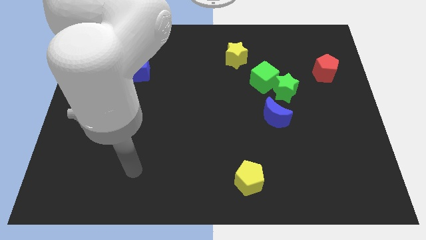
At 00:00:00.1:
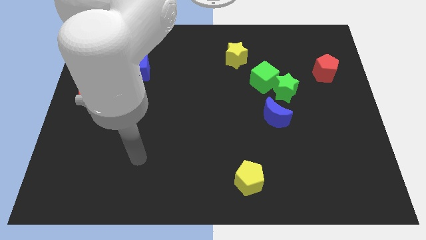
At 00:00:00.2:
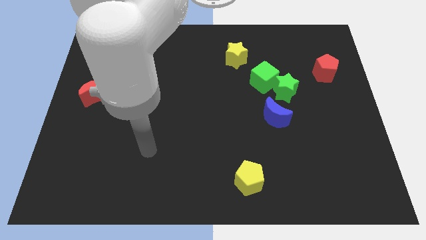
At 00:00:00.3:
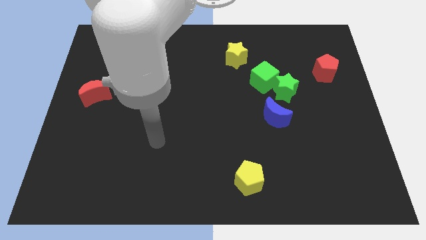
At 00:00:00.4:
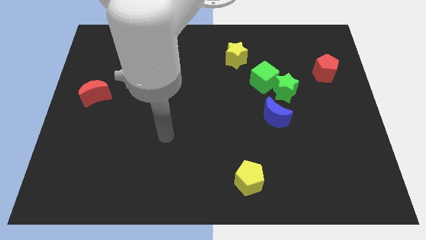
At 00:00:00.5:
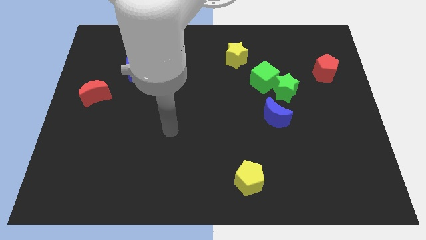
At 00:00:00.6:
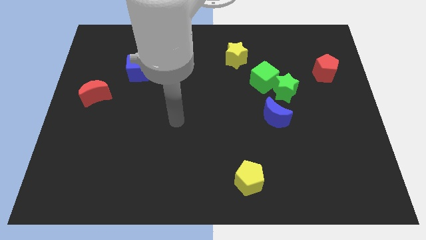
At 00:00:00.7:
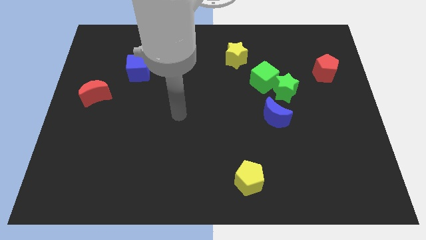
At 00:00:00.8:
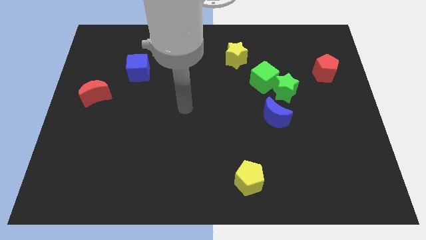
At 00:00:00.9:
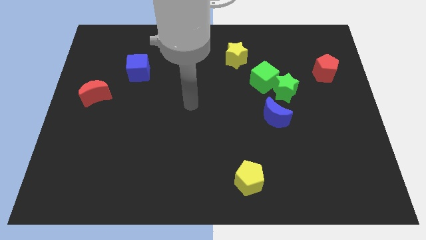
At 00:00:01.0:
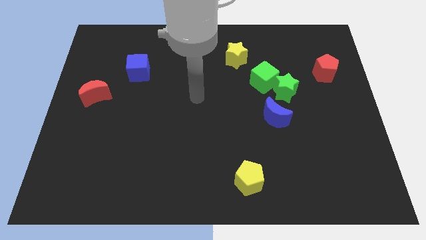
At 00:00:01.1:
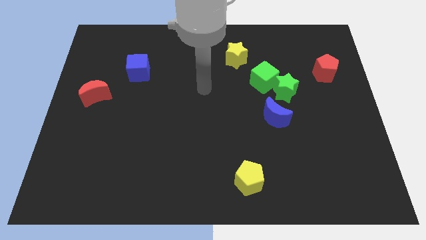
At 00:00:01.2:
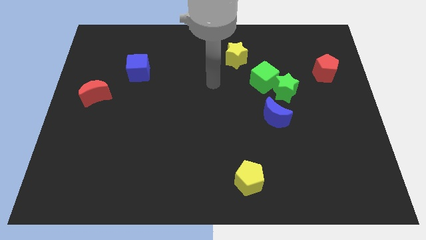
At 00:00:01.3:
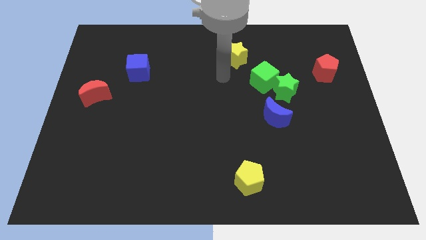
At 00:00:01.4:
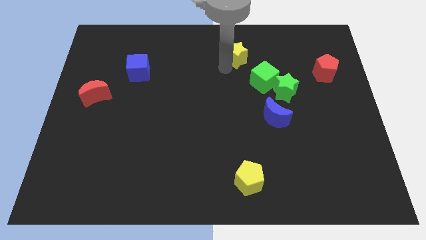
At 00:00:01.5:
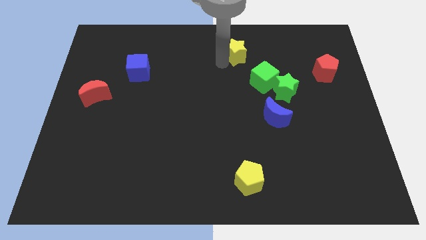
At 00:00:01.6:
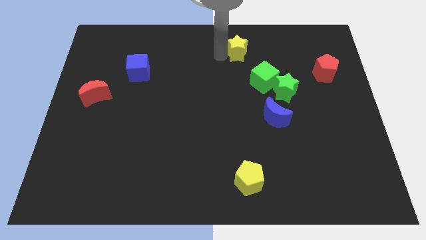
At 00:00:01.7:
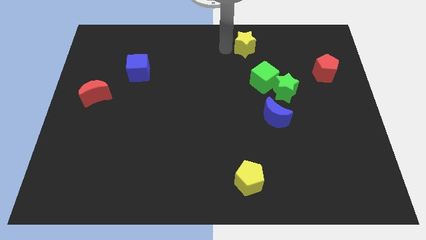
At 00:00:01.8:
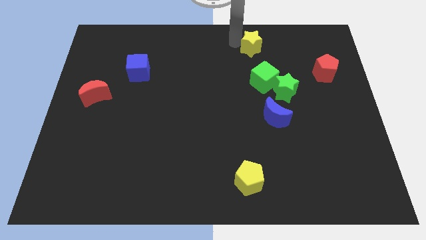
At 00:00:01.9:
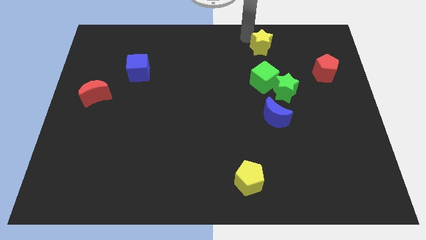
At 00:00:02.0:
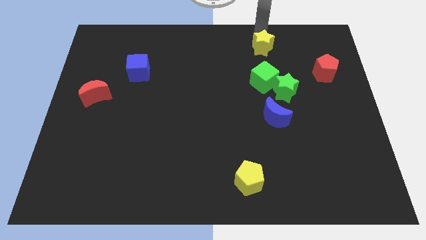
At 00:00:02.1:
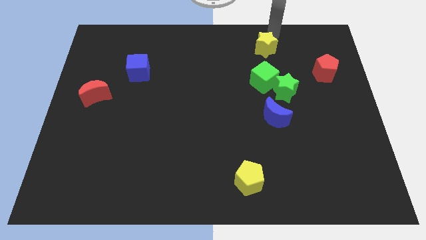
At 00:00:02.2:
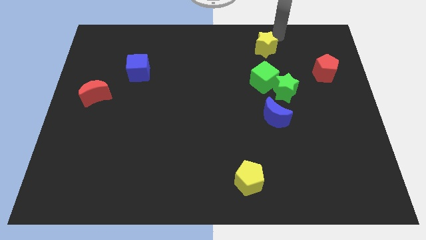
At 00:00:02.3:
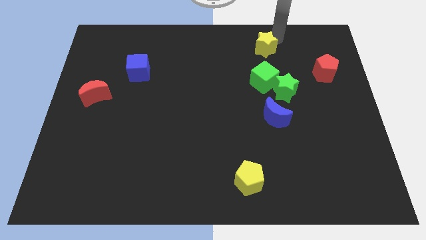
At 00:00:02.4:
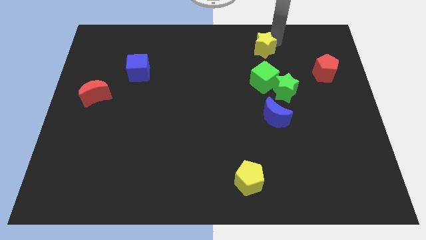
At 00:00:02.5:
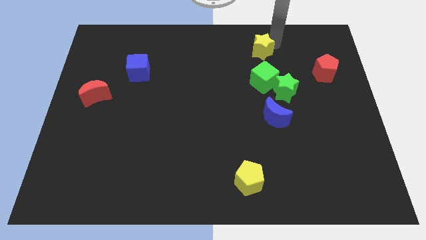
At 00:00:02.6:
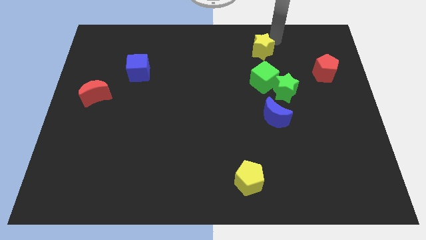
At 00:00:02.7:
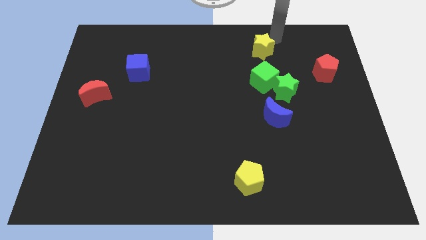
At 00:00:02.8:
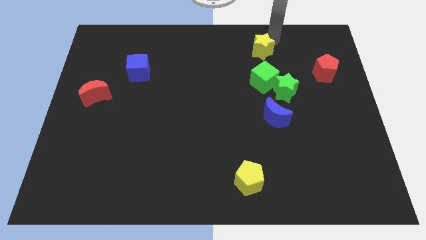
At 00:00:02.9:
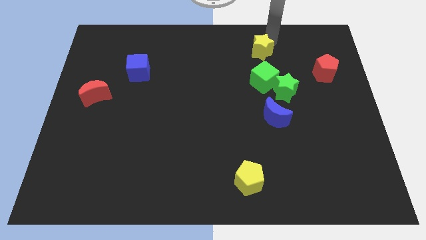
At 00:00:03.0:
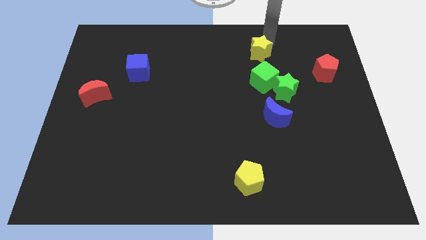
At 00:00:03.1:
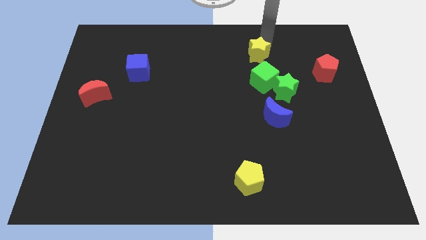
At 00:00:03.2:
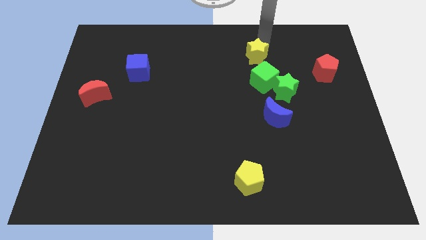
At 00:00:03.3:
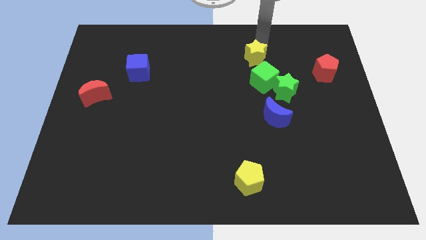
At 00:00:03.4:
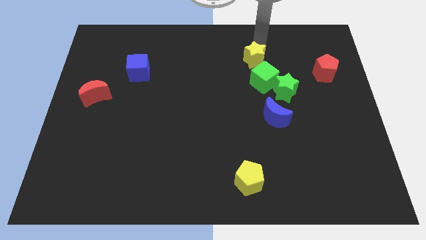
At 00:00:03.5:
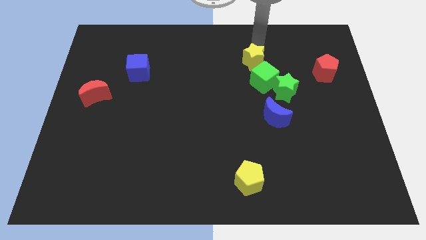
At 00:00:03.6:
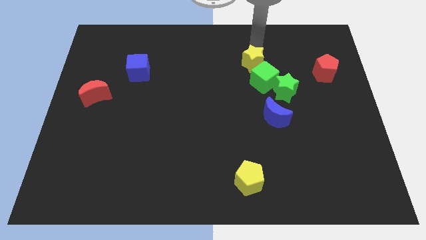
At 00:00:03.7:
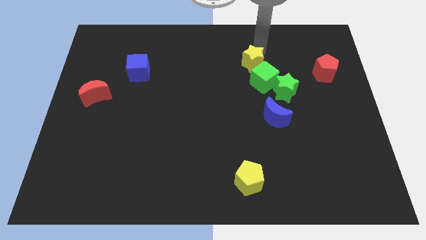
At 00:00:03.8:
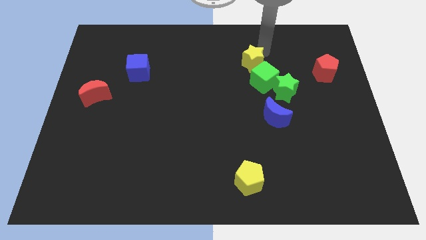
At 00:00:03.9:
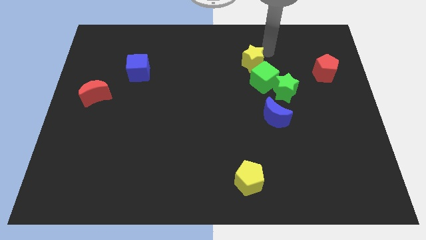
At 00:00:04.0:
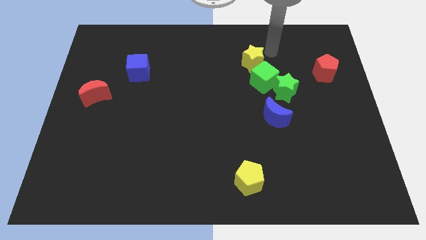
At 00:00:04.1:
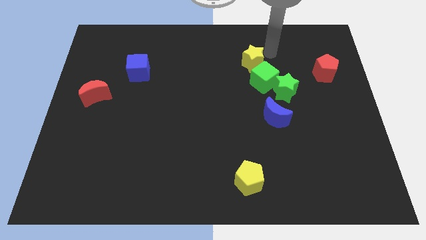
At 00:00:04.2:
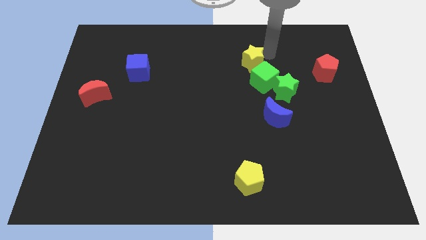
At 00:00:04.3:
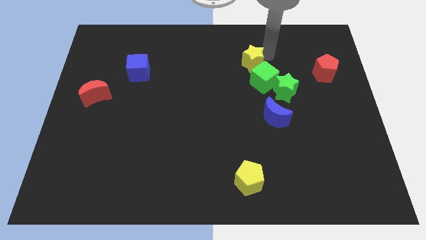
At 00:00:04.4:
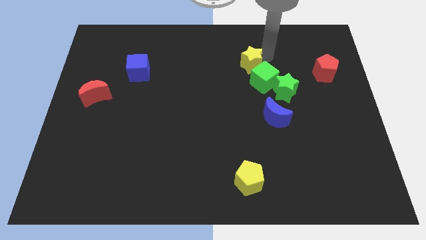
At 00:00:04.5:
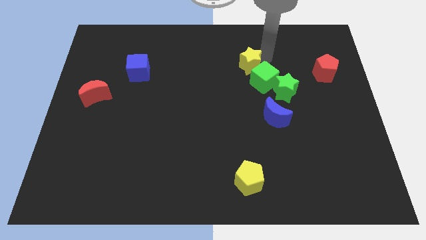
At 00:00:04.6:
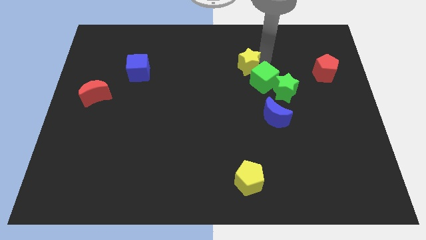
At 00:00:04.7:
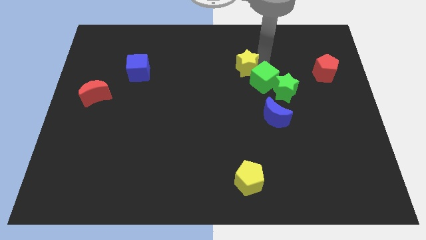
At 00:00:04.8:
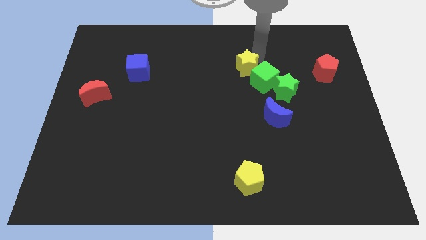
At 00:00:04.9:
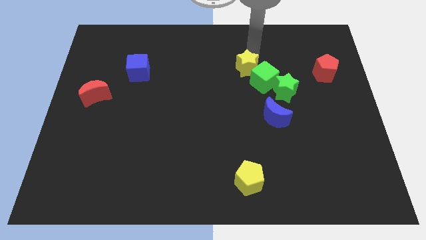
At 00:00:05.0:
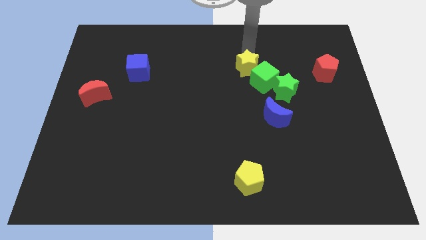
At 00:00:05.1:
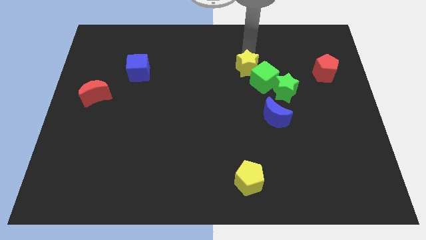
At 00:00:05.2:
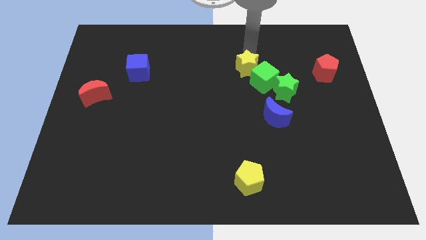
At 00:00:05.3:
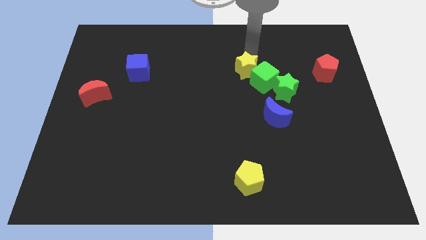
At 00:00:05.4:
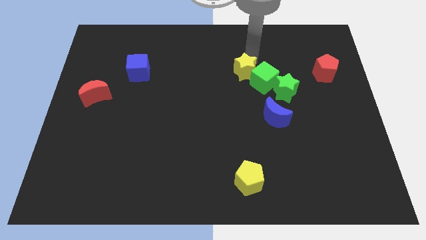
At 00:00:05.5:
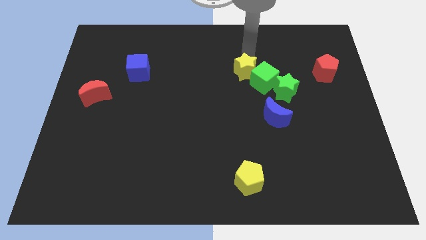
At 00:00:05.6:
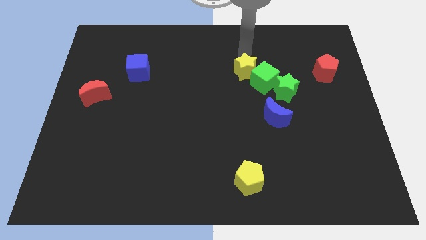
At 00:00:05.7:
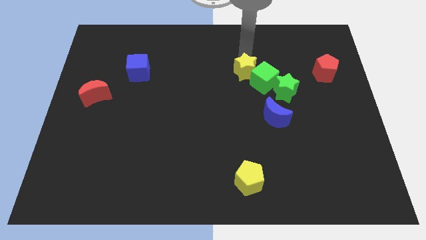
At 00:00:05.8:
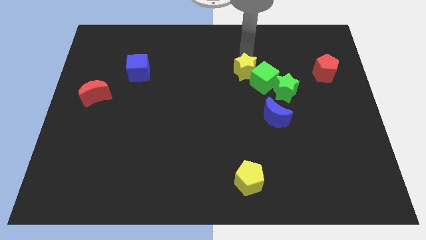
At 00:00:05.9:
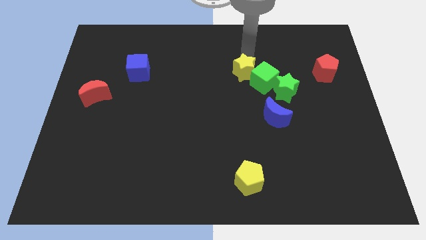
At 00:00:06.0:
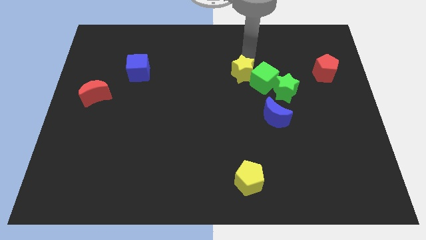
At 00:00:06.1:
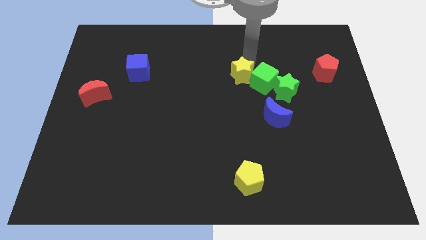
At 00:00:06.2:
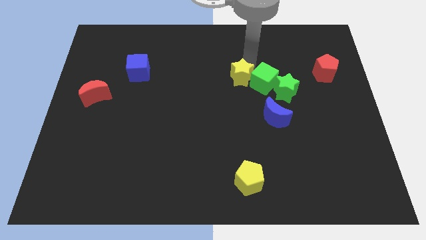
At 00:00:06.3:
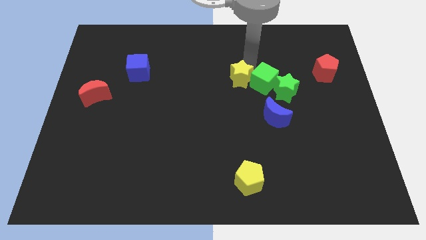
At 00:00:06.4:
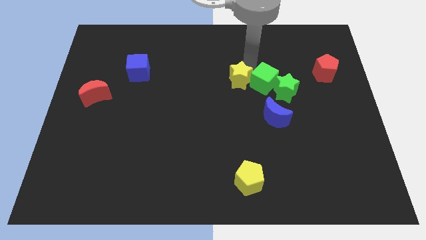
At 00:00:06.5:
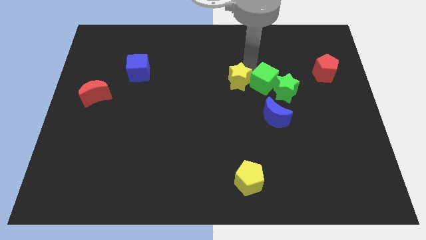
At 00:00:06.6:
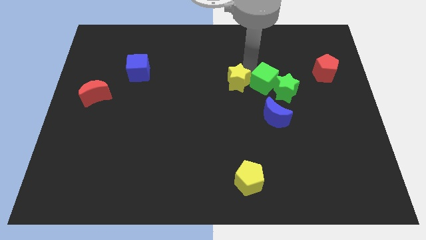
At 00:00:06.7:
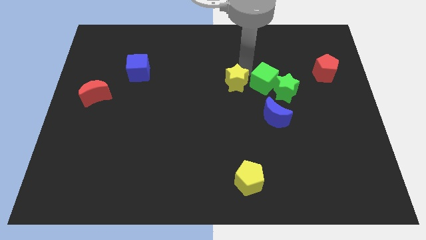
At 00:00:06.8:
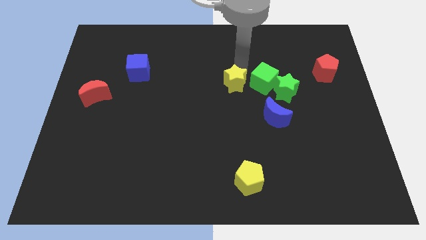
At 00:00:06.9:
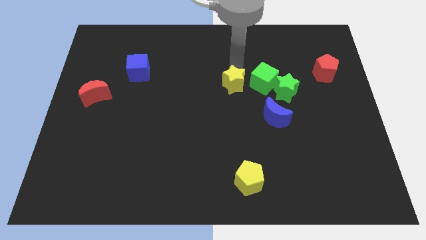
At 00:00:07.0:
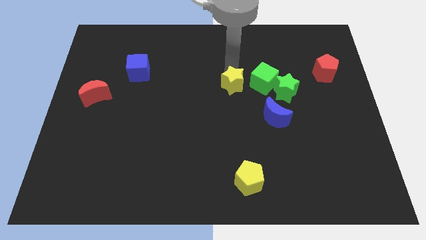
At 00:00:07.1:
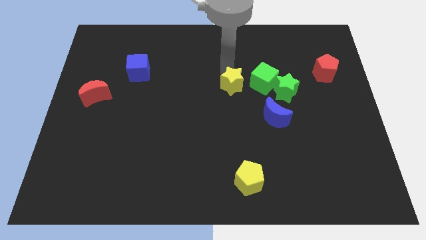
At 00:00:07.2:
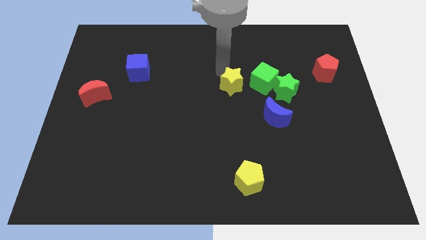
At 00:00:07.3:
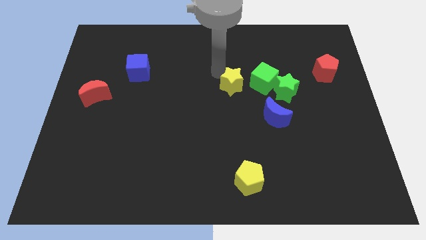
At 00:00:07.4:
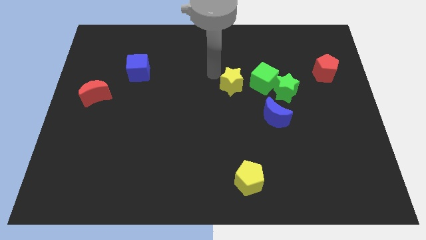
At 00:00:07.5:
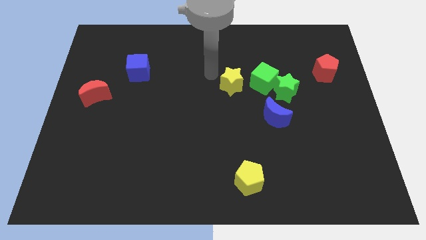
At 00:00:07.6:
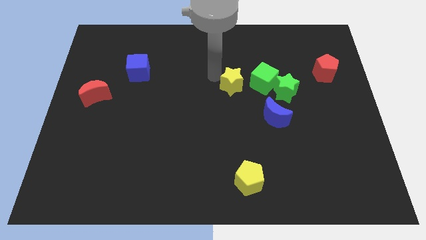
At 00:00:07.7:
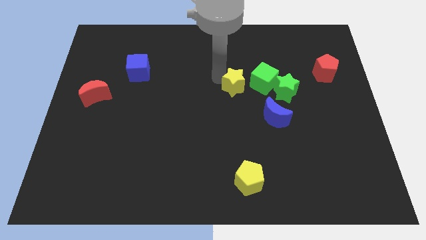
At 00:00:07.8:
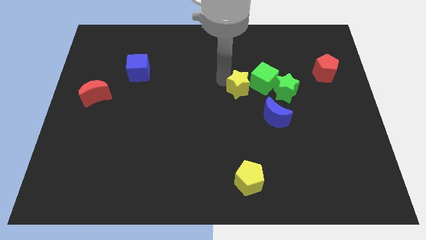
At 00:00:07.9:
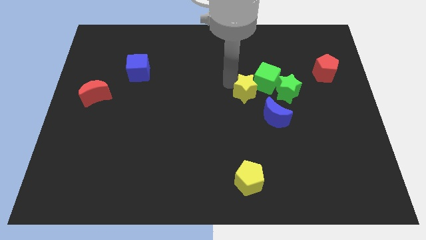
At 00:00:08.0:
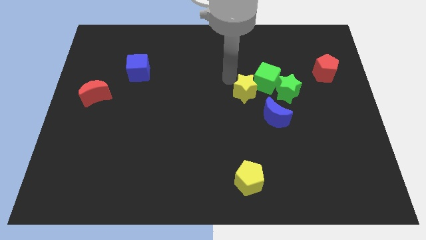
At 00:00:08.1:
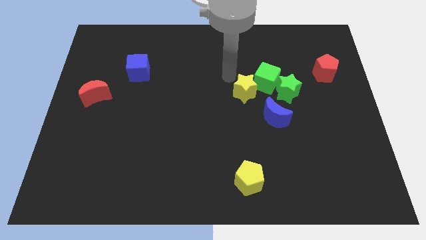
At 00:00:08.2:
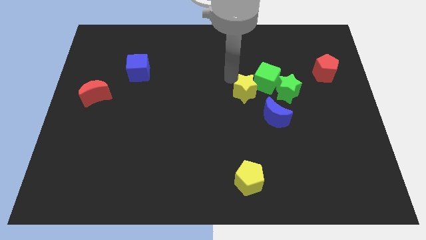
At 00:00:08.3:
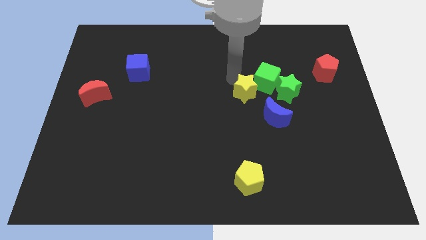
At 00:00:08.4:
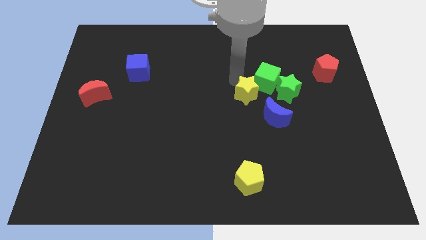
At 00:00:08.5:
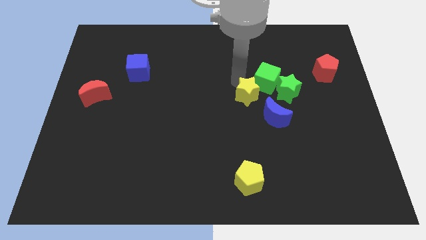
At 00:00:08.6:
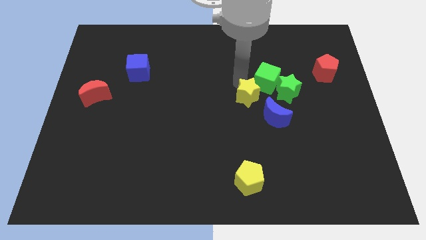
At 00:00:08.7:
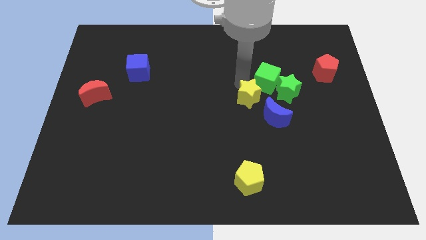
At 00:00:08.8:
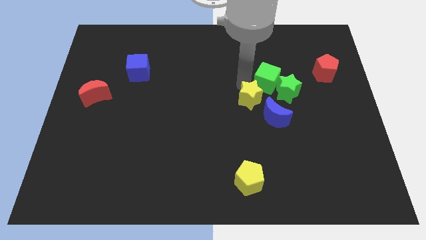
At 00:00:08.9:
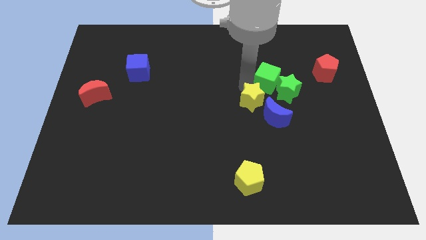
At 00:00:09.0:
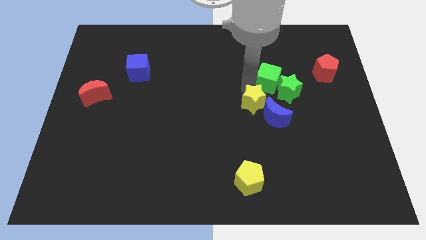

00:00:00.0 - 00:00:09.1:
move the yellow star close to the blue moon
